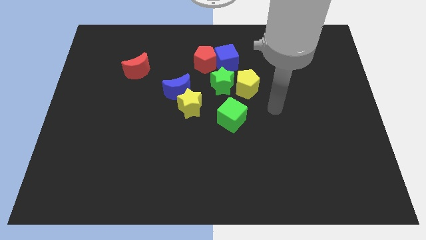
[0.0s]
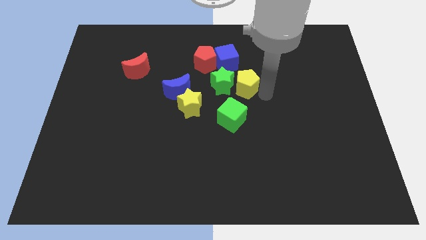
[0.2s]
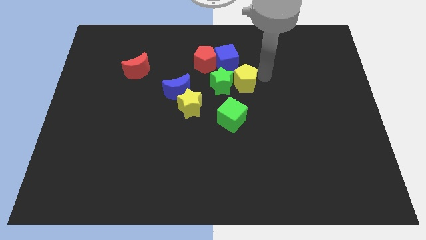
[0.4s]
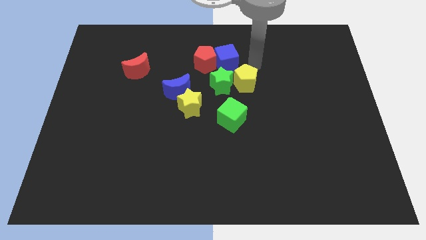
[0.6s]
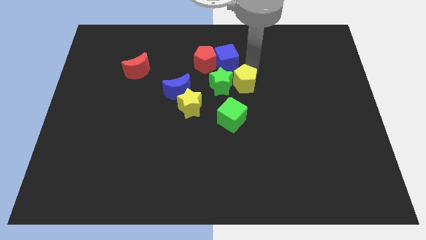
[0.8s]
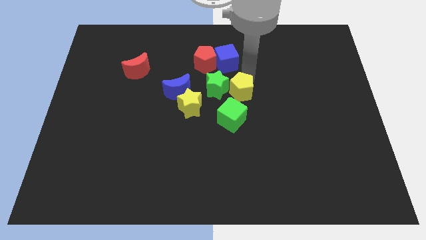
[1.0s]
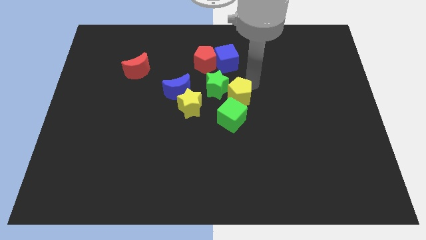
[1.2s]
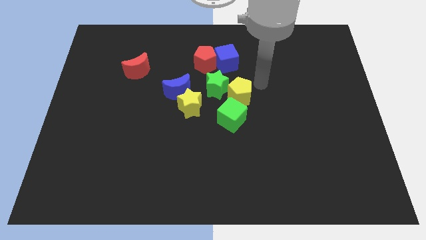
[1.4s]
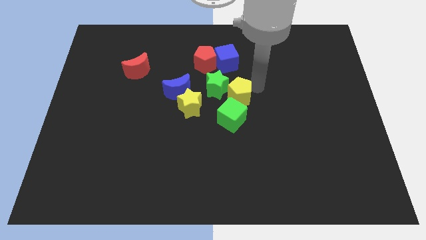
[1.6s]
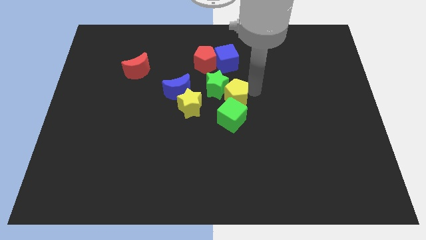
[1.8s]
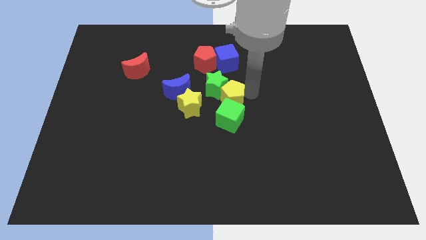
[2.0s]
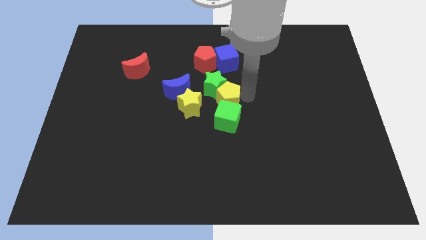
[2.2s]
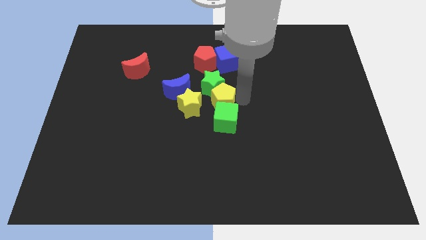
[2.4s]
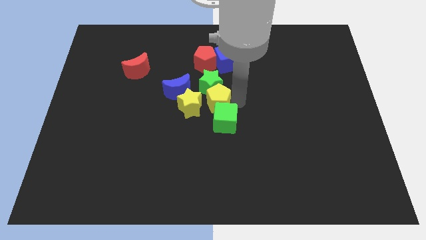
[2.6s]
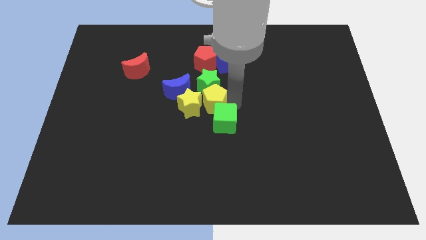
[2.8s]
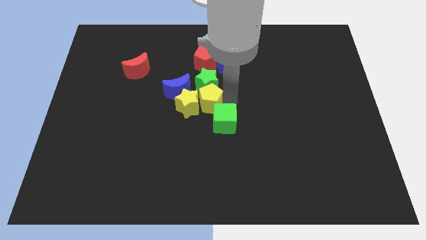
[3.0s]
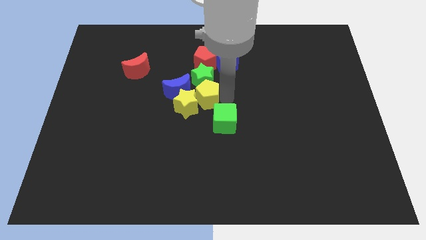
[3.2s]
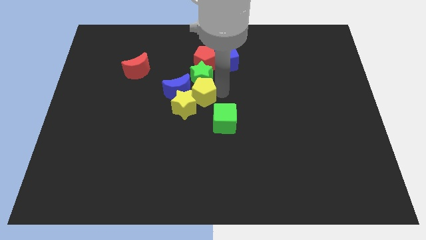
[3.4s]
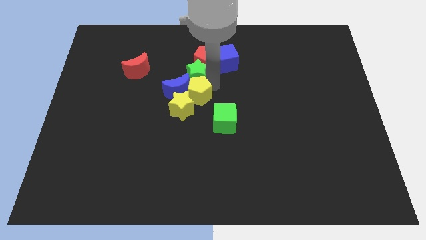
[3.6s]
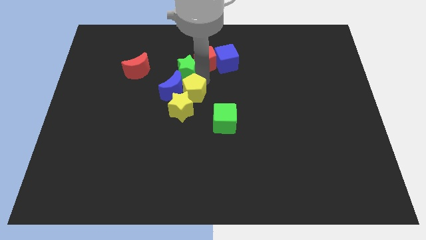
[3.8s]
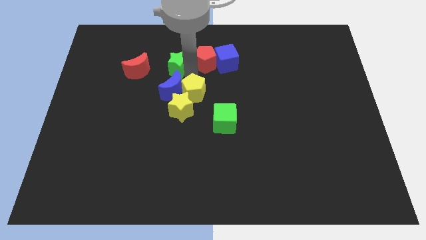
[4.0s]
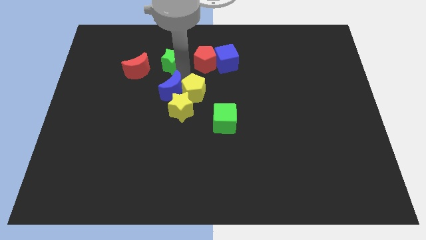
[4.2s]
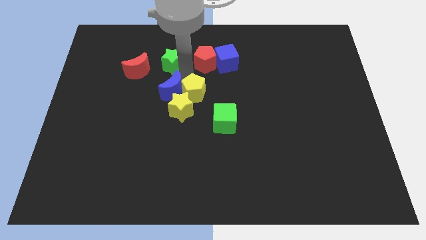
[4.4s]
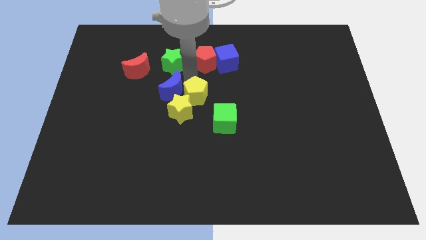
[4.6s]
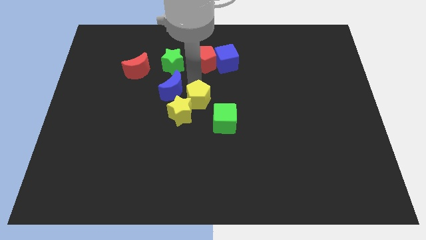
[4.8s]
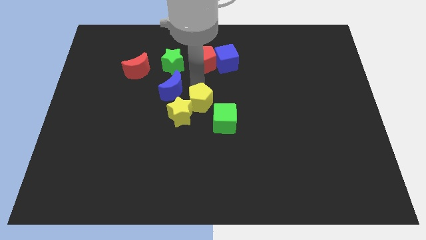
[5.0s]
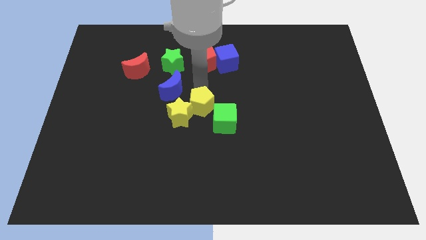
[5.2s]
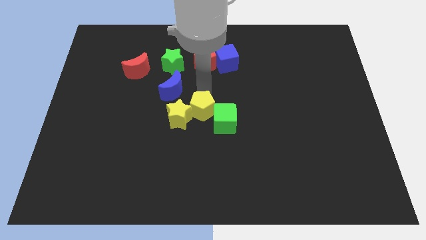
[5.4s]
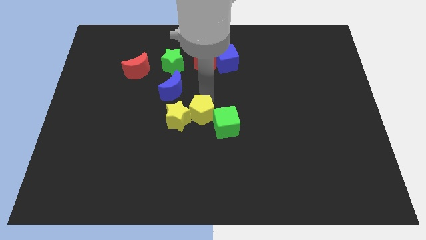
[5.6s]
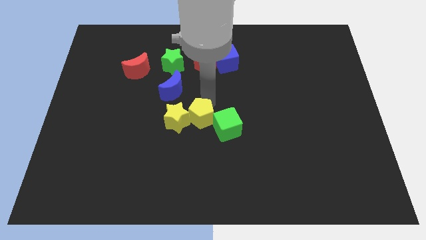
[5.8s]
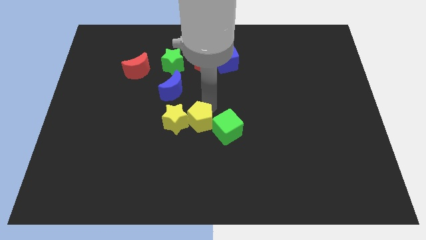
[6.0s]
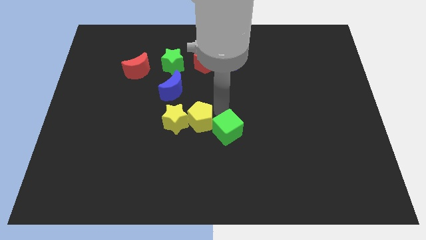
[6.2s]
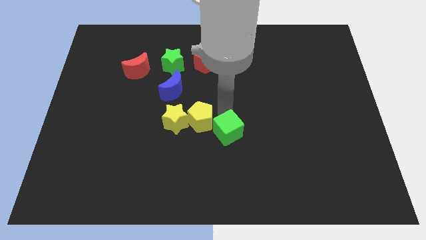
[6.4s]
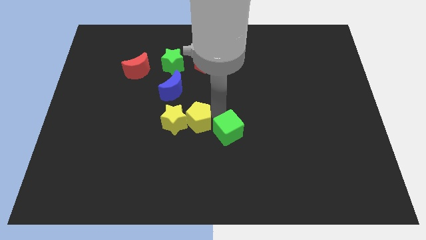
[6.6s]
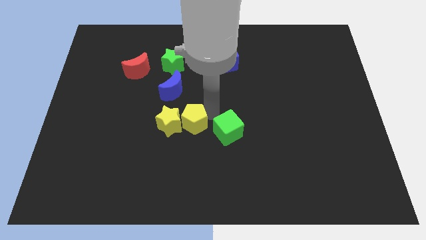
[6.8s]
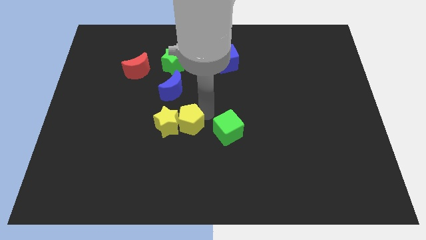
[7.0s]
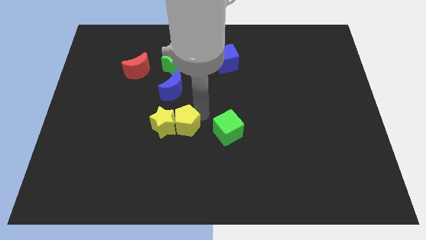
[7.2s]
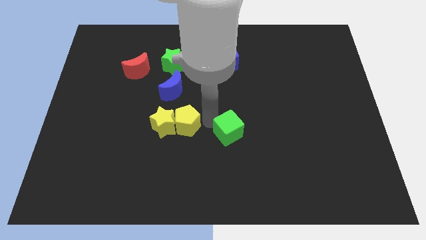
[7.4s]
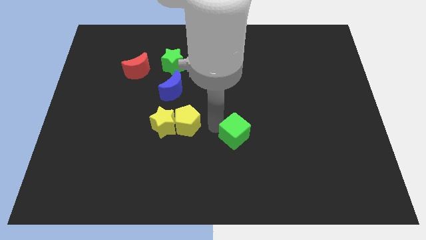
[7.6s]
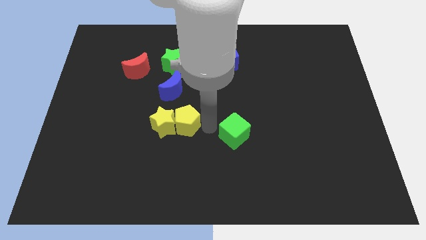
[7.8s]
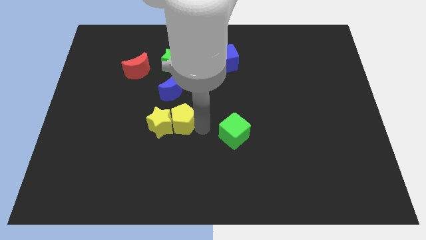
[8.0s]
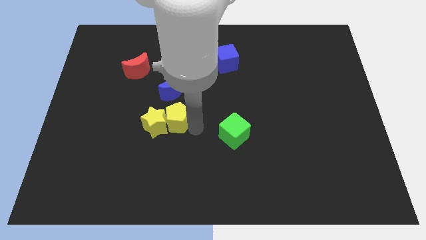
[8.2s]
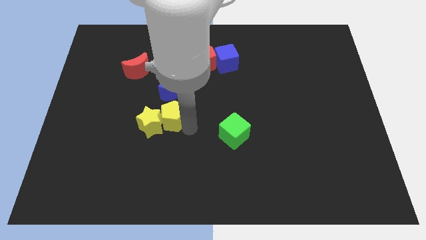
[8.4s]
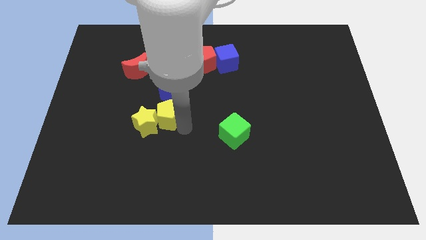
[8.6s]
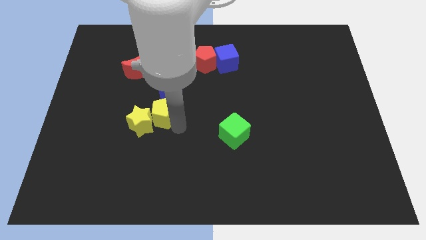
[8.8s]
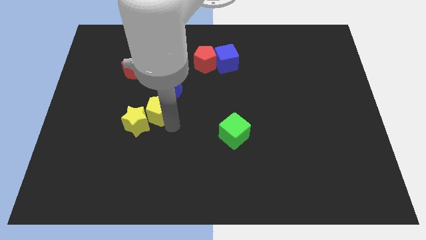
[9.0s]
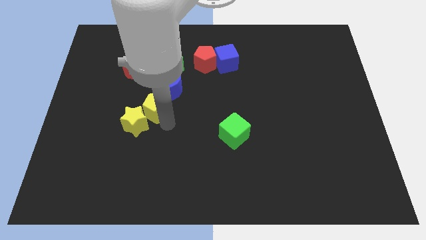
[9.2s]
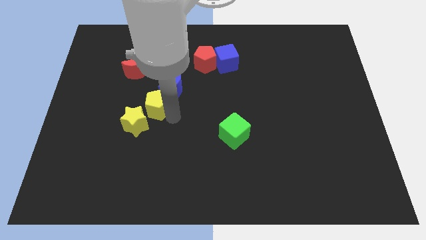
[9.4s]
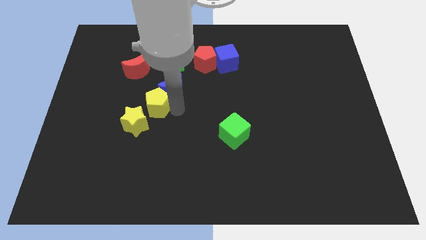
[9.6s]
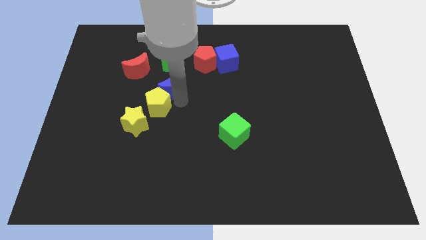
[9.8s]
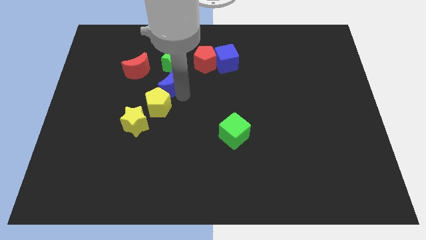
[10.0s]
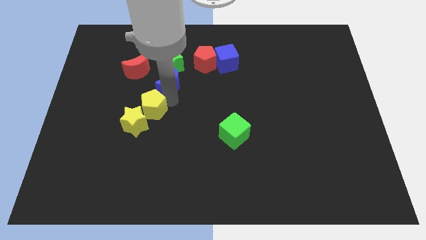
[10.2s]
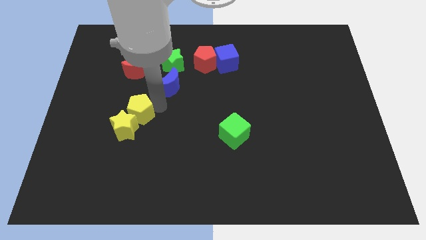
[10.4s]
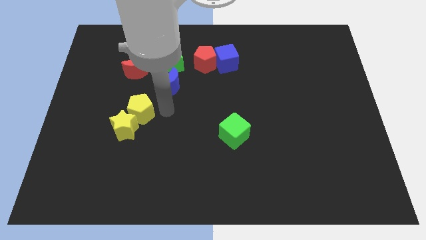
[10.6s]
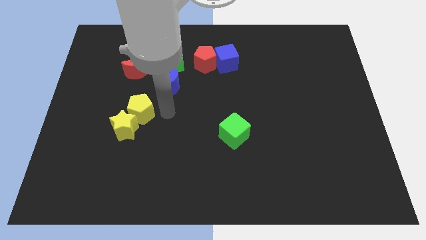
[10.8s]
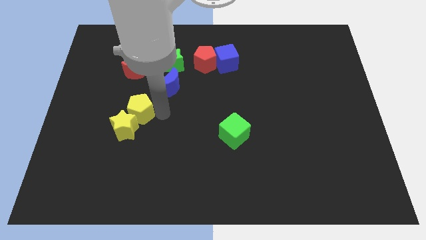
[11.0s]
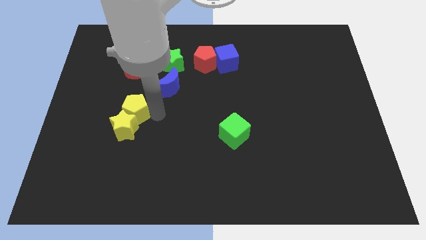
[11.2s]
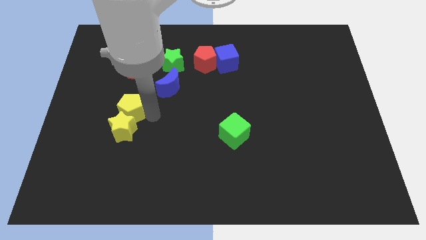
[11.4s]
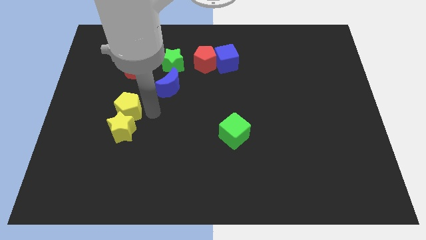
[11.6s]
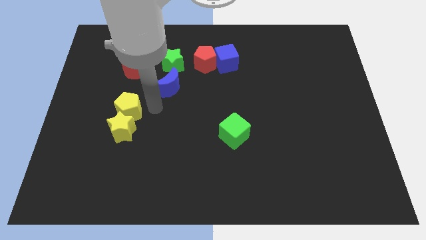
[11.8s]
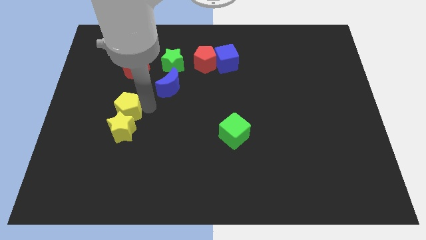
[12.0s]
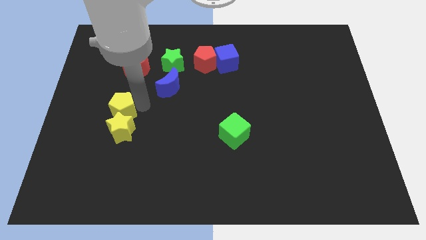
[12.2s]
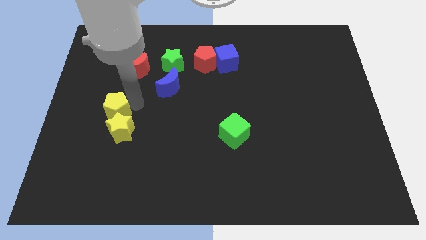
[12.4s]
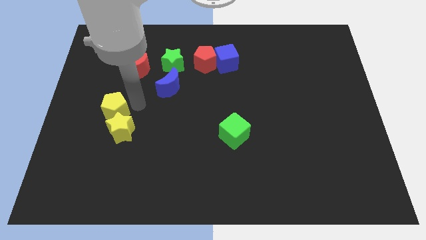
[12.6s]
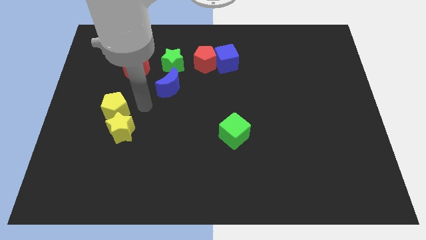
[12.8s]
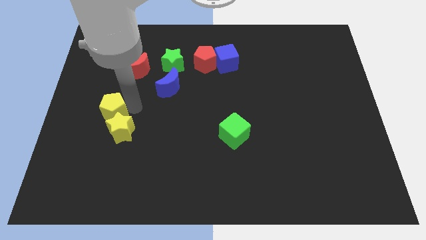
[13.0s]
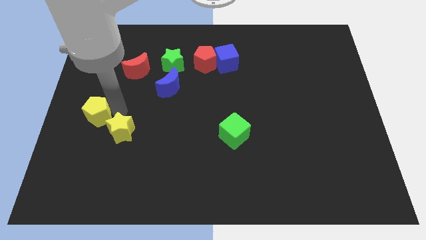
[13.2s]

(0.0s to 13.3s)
push the yellow pentagon to the left side of the board

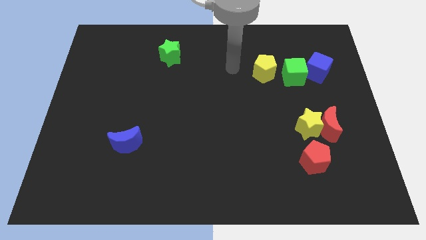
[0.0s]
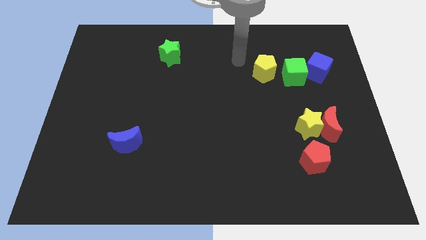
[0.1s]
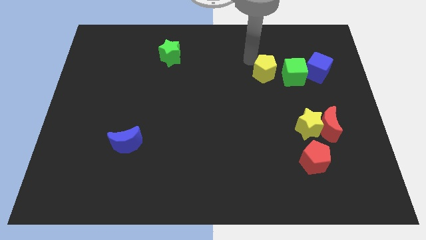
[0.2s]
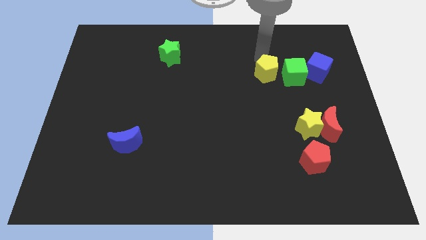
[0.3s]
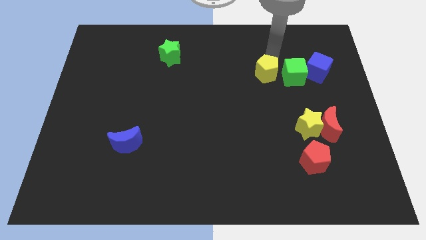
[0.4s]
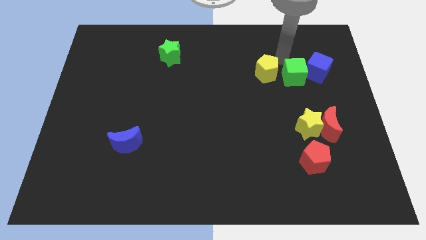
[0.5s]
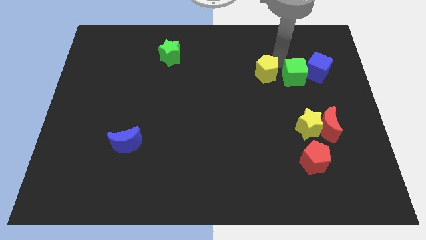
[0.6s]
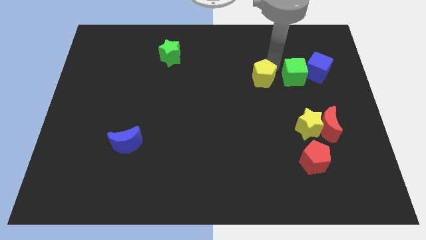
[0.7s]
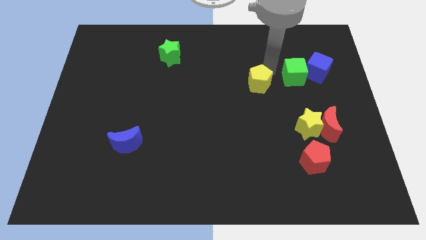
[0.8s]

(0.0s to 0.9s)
put the yellow pentagon to the center of the board
